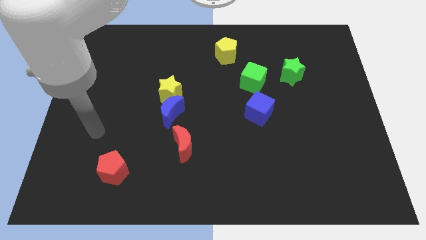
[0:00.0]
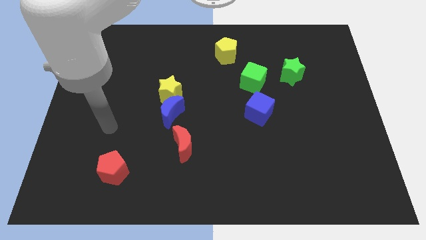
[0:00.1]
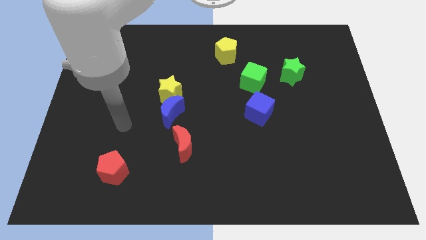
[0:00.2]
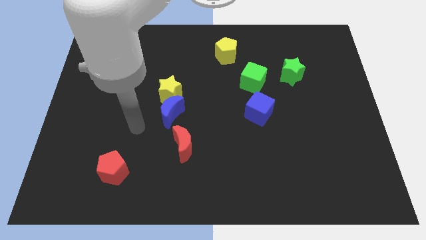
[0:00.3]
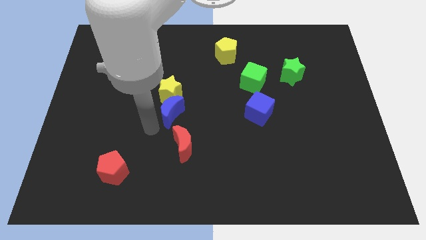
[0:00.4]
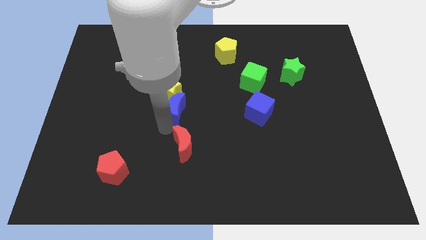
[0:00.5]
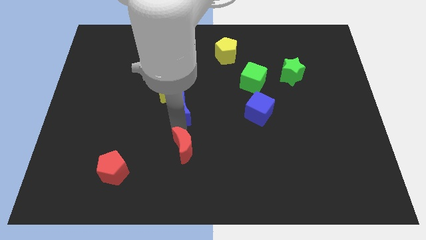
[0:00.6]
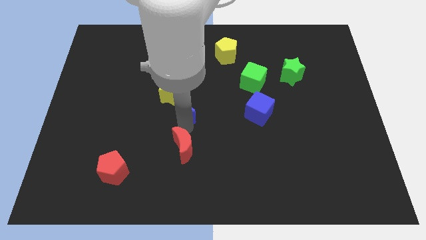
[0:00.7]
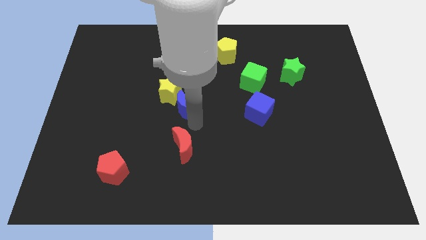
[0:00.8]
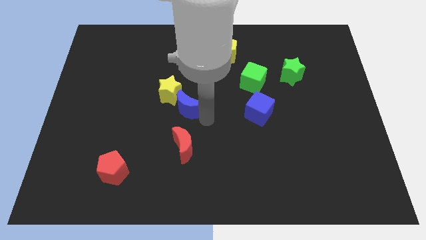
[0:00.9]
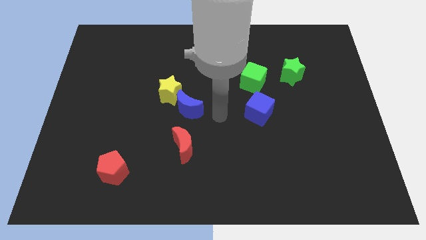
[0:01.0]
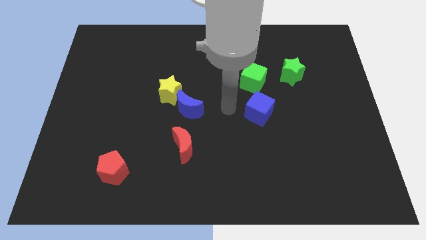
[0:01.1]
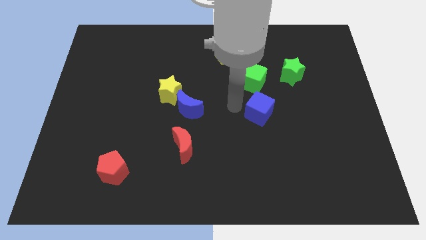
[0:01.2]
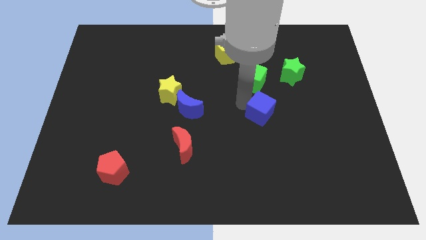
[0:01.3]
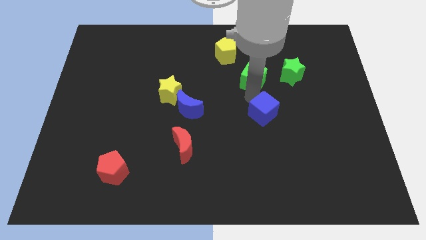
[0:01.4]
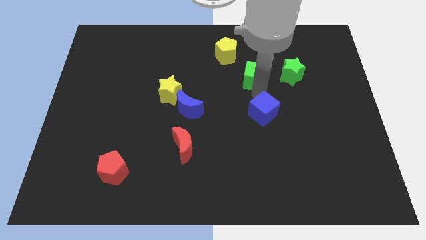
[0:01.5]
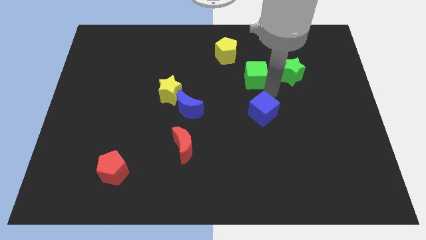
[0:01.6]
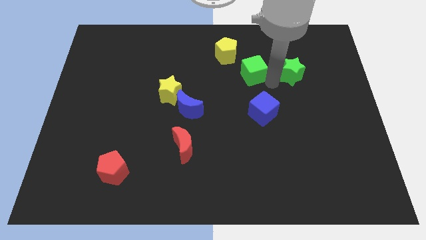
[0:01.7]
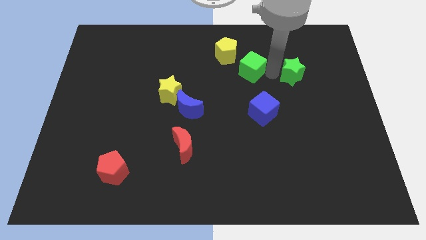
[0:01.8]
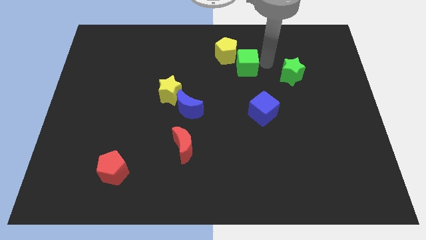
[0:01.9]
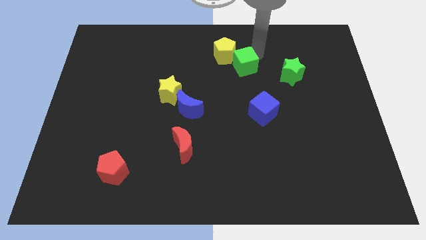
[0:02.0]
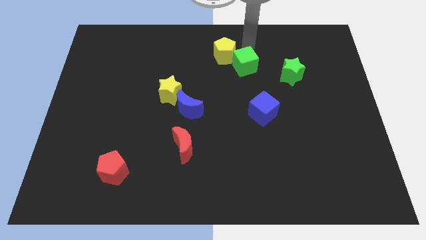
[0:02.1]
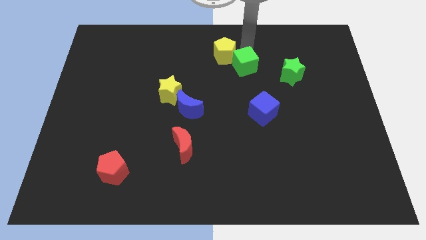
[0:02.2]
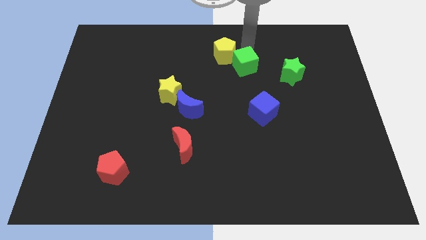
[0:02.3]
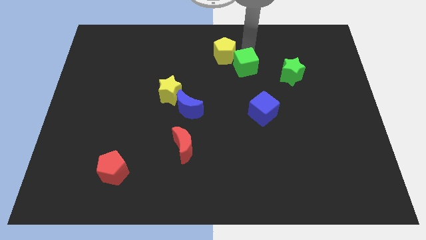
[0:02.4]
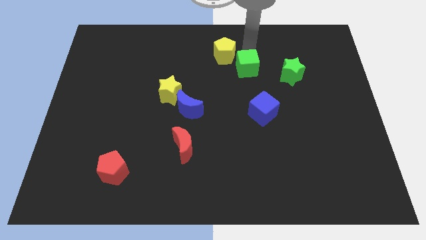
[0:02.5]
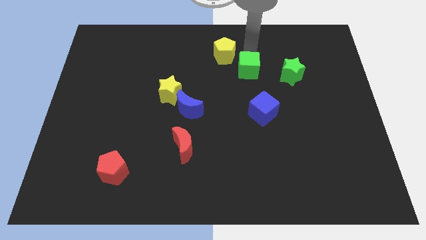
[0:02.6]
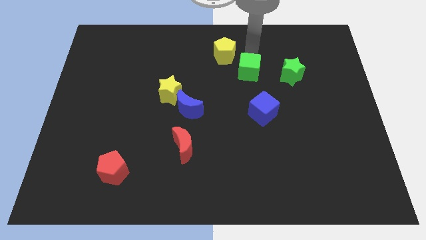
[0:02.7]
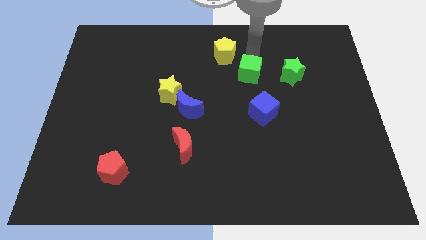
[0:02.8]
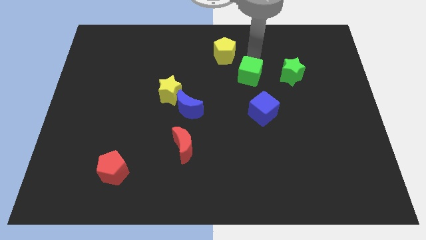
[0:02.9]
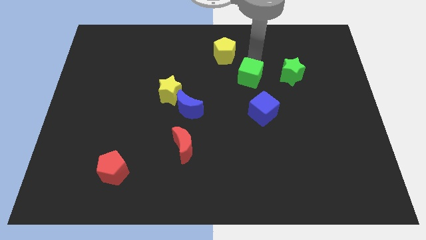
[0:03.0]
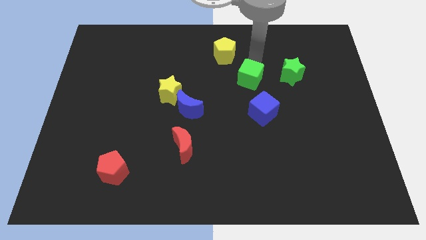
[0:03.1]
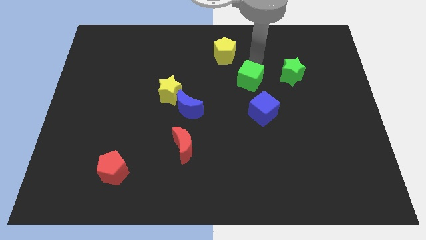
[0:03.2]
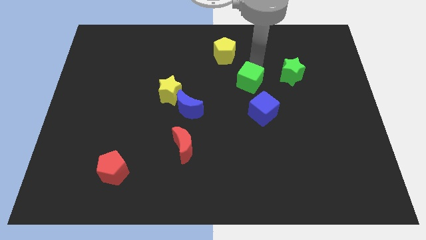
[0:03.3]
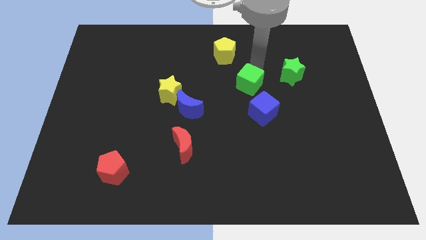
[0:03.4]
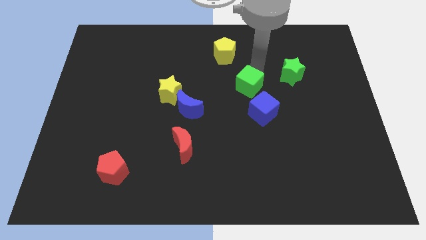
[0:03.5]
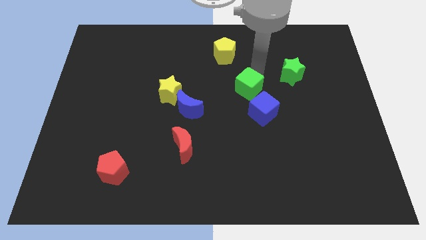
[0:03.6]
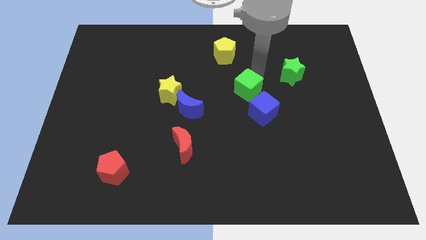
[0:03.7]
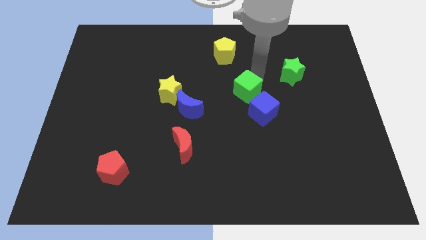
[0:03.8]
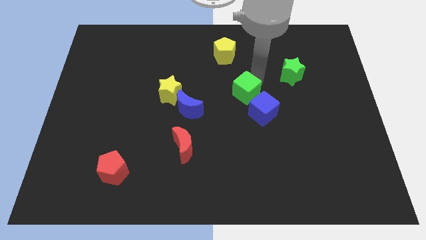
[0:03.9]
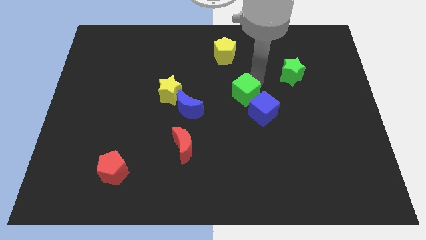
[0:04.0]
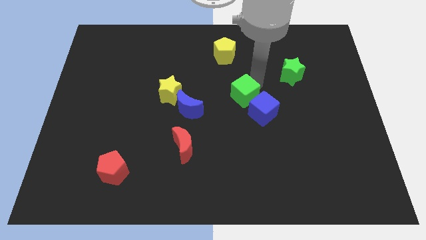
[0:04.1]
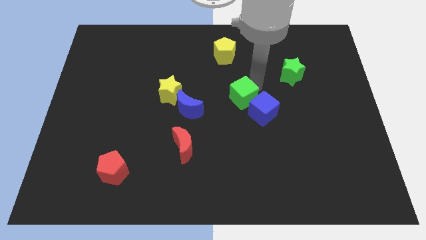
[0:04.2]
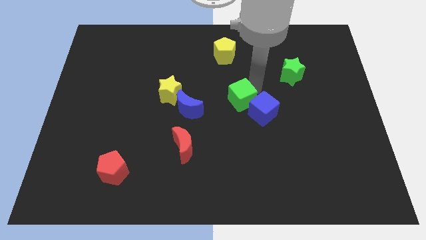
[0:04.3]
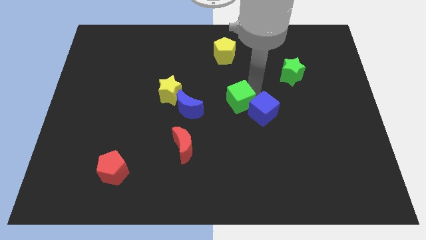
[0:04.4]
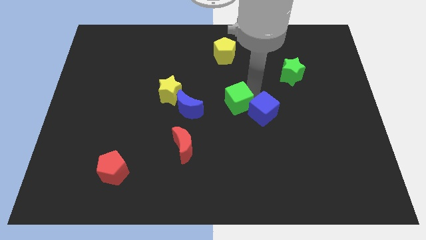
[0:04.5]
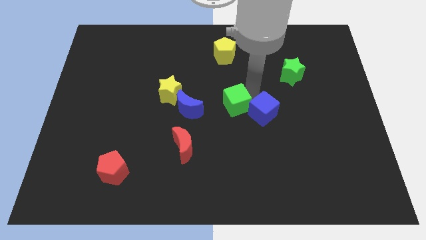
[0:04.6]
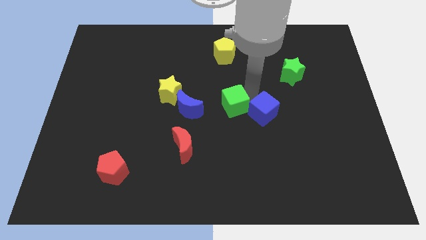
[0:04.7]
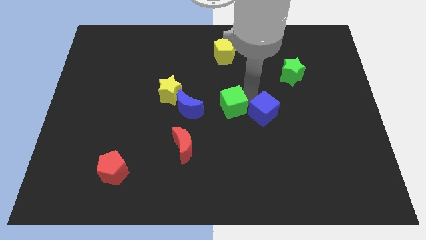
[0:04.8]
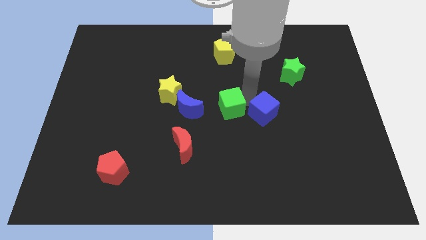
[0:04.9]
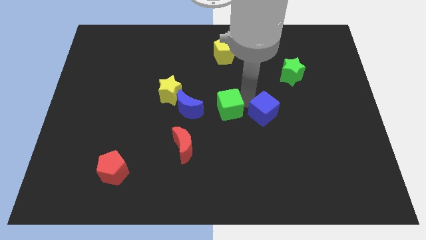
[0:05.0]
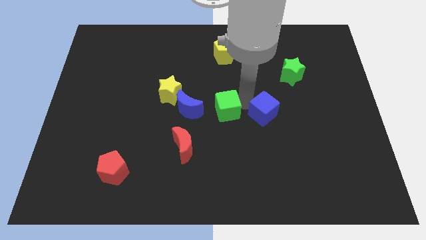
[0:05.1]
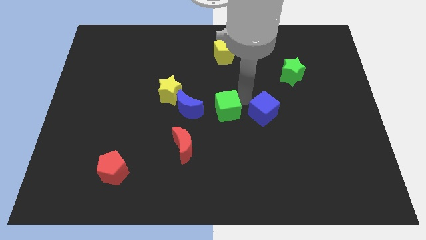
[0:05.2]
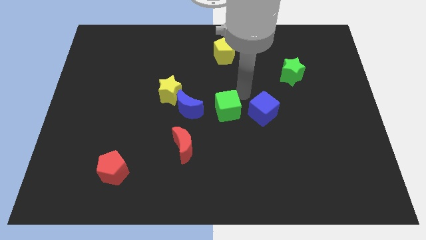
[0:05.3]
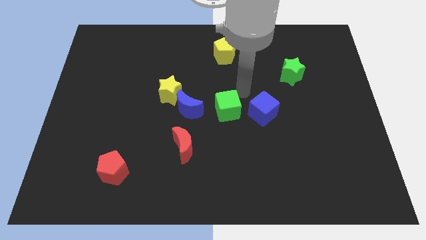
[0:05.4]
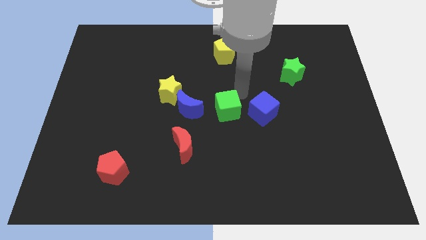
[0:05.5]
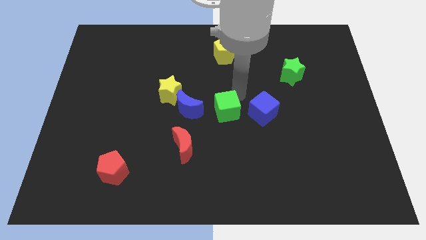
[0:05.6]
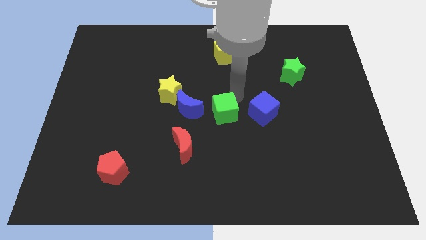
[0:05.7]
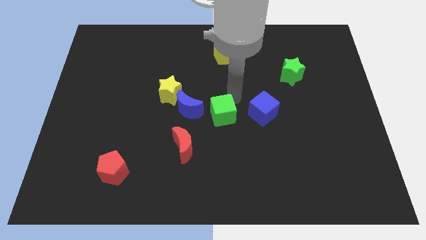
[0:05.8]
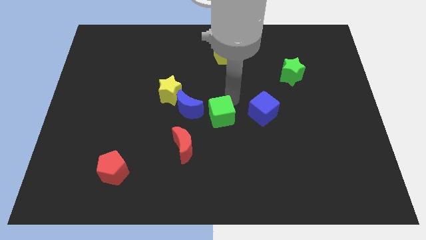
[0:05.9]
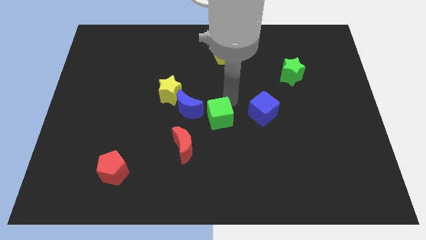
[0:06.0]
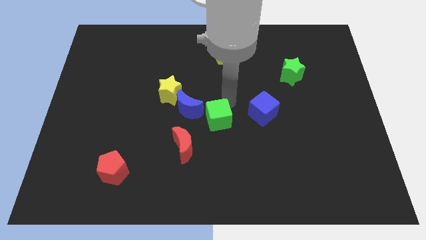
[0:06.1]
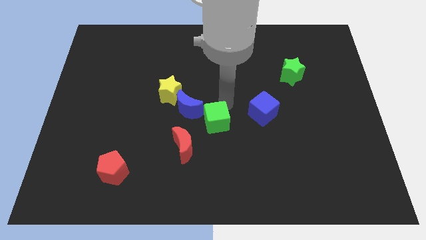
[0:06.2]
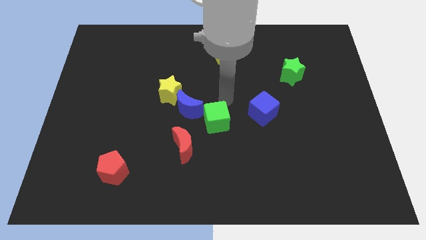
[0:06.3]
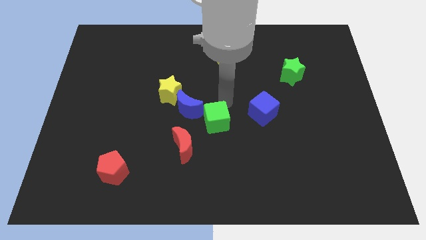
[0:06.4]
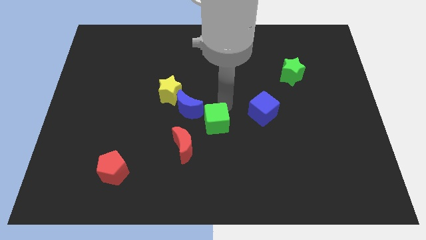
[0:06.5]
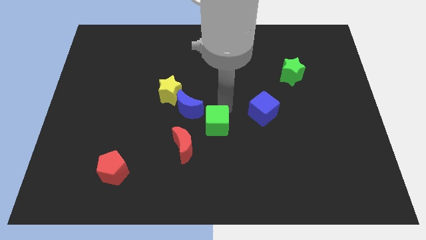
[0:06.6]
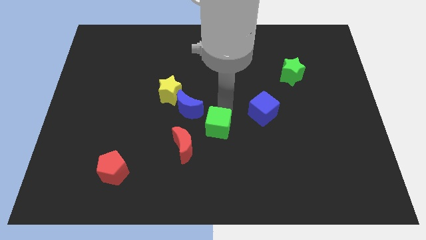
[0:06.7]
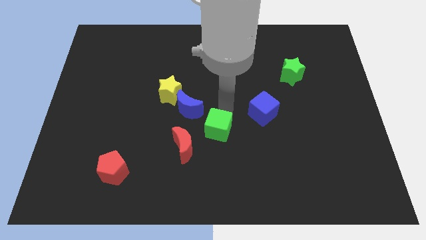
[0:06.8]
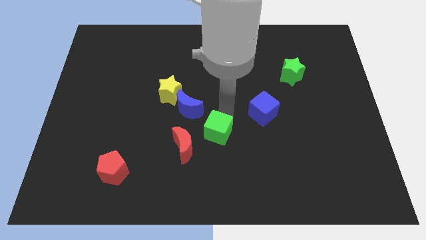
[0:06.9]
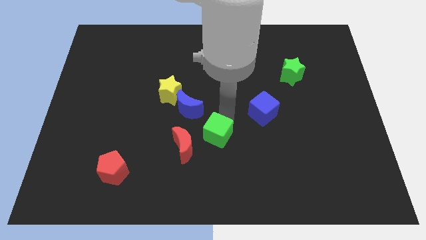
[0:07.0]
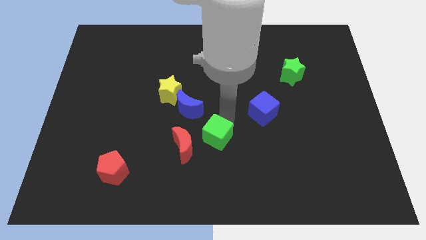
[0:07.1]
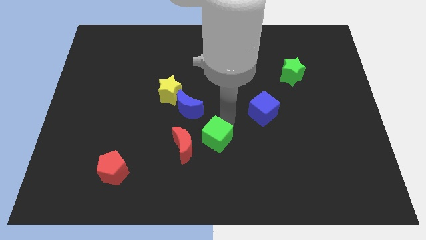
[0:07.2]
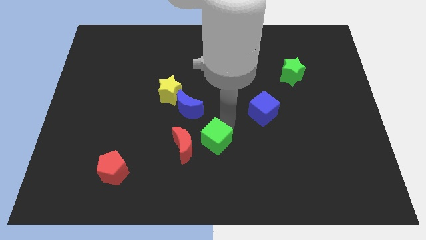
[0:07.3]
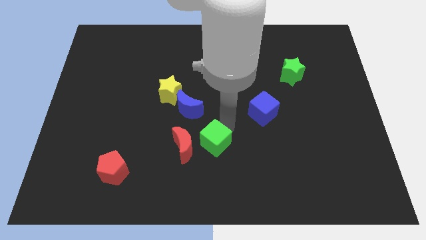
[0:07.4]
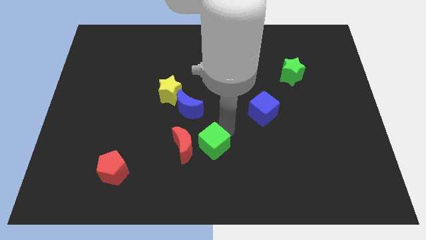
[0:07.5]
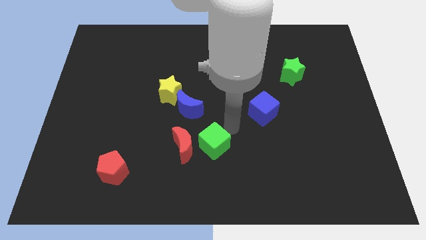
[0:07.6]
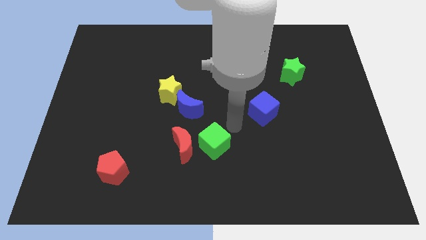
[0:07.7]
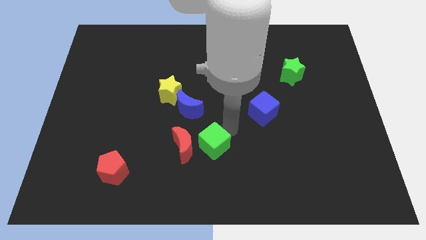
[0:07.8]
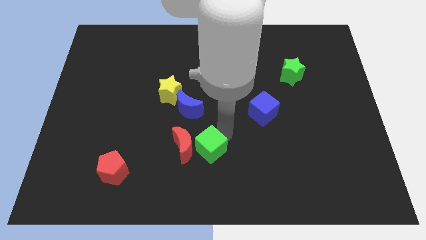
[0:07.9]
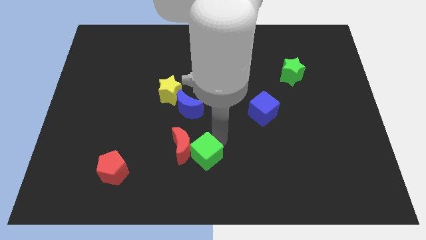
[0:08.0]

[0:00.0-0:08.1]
push the green cube downwards and then left

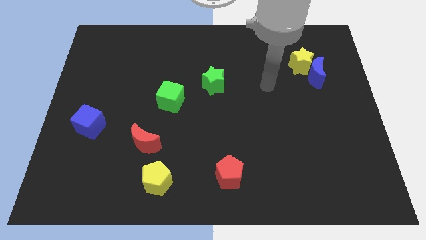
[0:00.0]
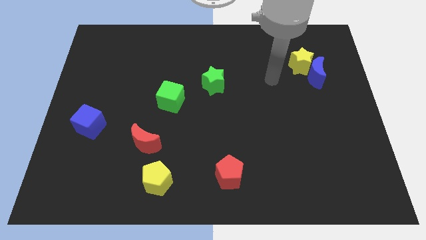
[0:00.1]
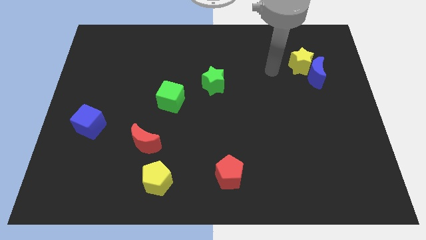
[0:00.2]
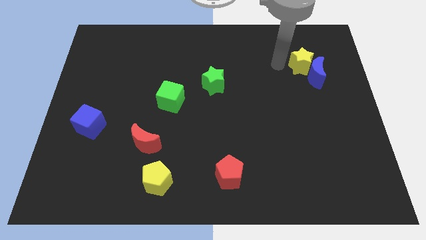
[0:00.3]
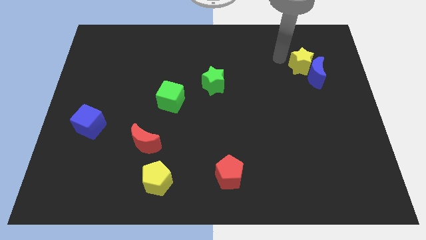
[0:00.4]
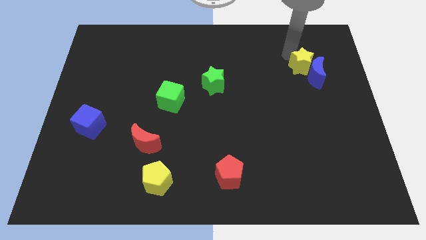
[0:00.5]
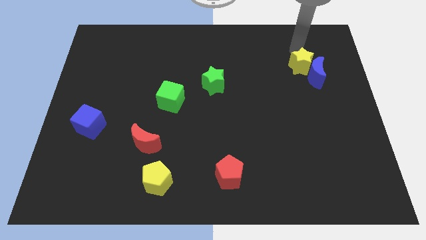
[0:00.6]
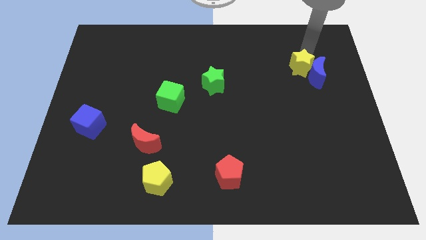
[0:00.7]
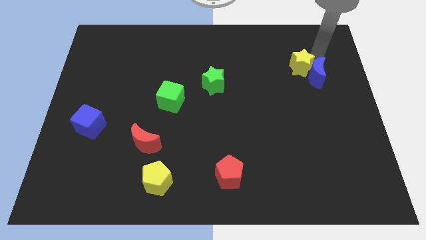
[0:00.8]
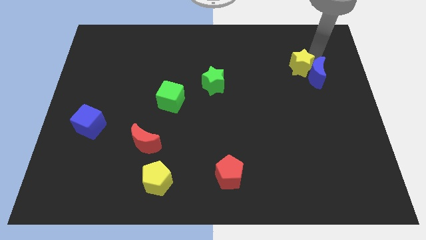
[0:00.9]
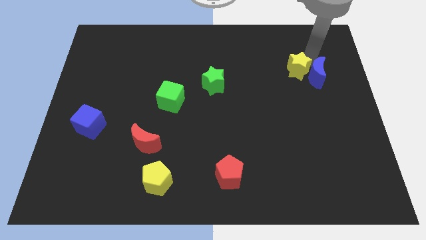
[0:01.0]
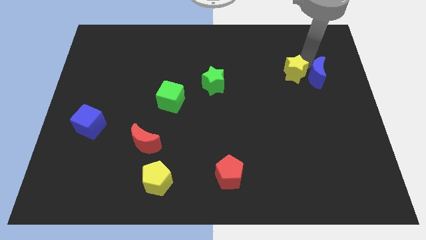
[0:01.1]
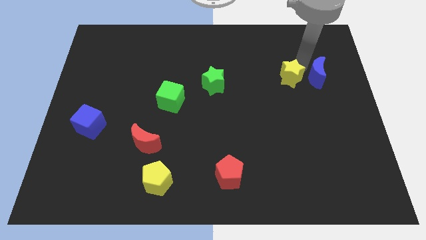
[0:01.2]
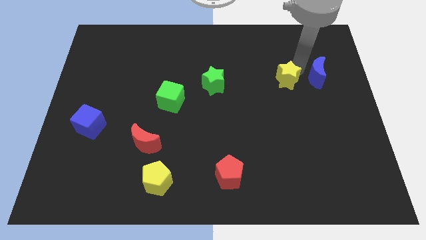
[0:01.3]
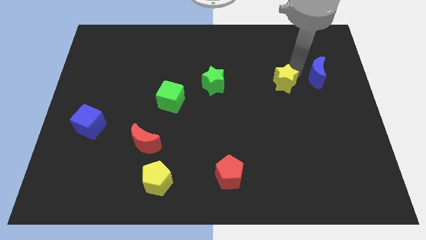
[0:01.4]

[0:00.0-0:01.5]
slightly push the yellow star downwards and then left
